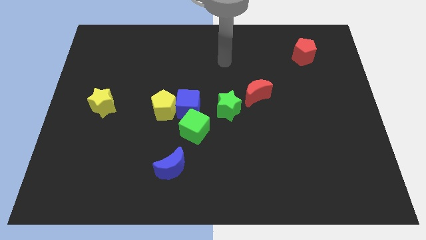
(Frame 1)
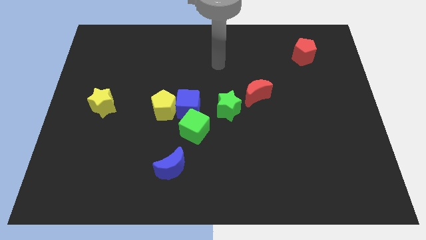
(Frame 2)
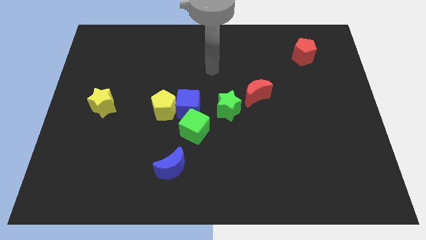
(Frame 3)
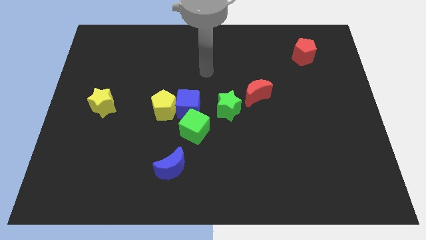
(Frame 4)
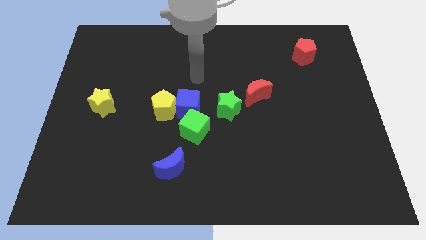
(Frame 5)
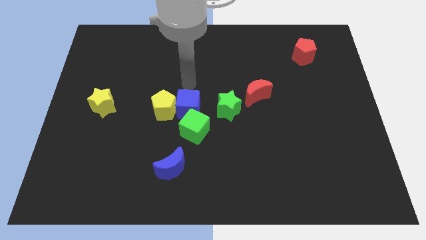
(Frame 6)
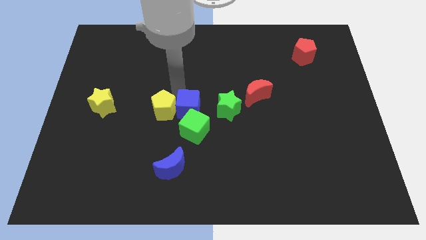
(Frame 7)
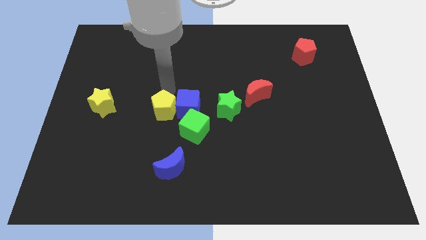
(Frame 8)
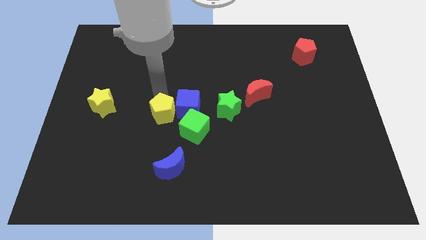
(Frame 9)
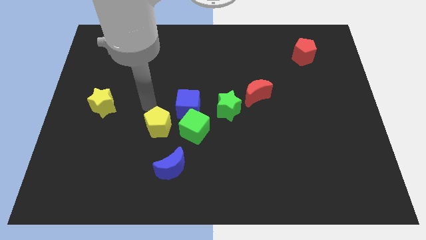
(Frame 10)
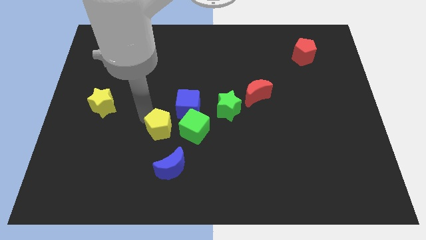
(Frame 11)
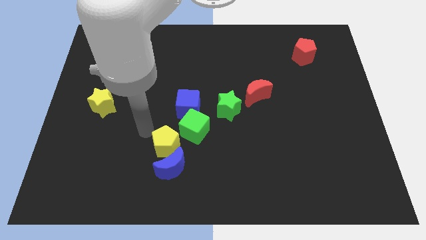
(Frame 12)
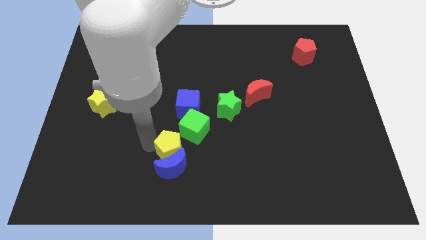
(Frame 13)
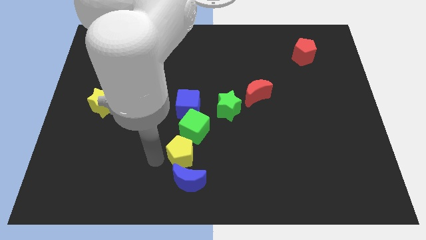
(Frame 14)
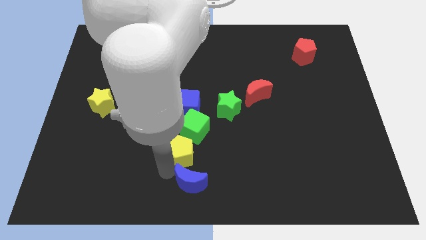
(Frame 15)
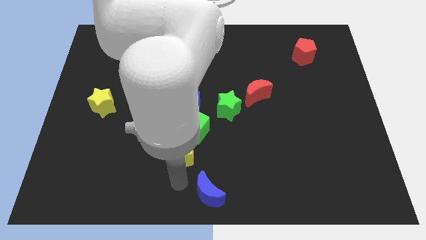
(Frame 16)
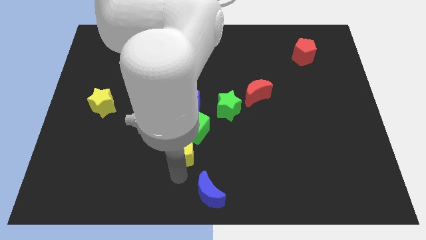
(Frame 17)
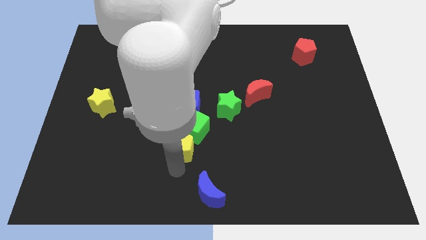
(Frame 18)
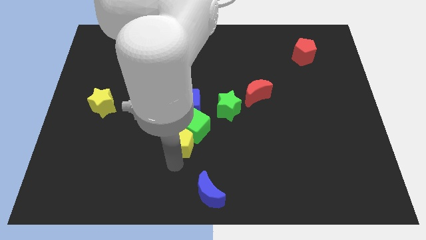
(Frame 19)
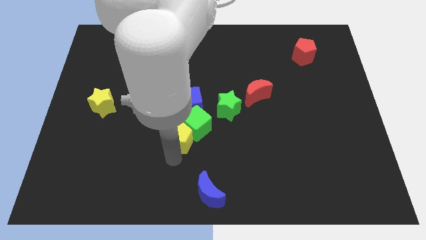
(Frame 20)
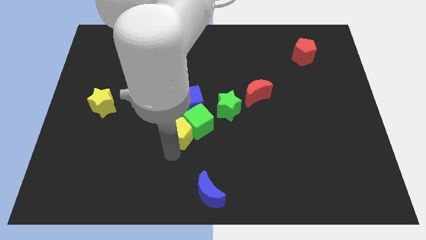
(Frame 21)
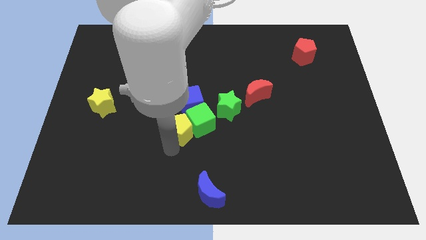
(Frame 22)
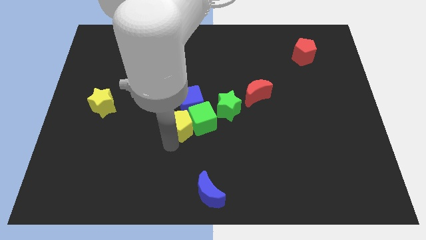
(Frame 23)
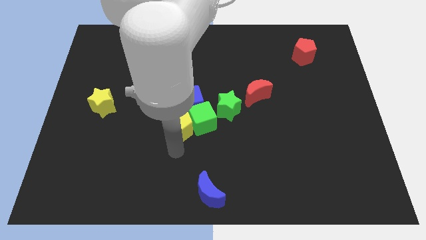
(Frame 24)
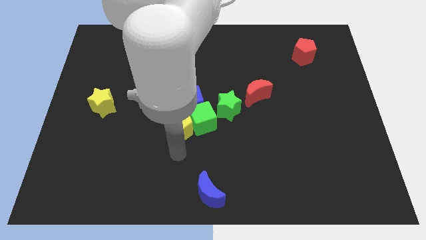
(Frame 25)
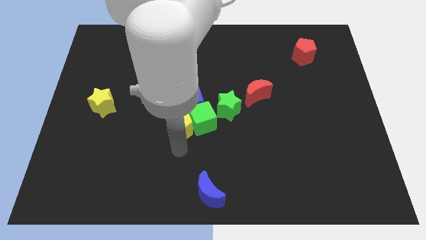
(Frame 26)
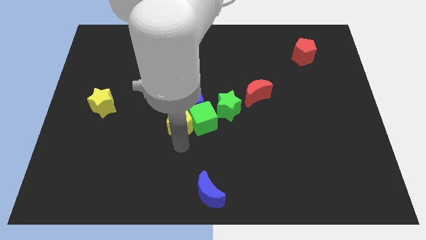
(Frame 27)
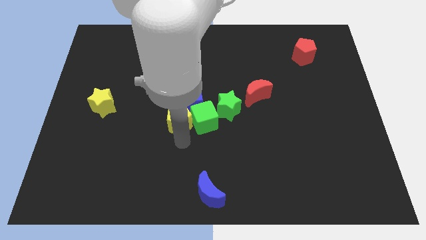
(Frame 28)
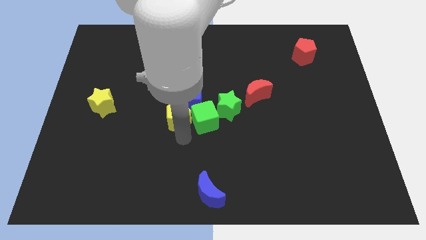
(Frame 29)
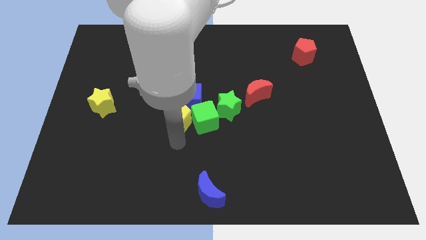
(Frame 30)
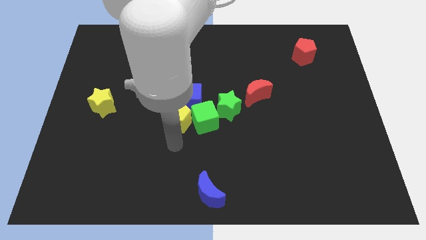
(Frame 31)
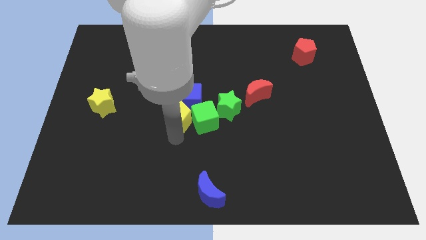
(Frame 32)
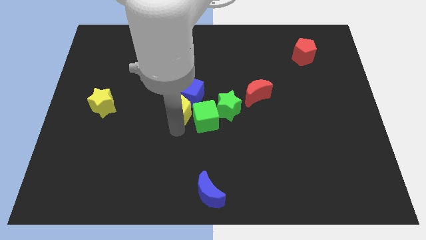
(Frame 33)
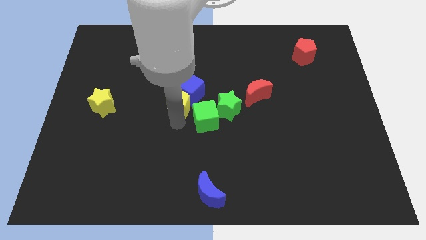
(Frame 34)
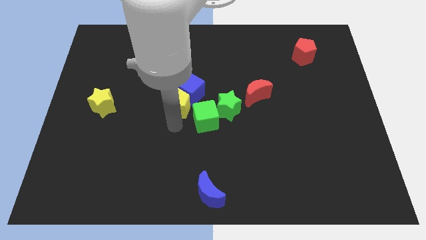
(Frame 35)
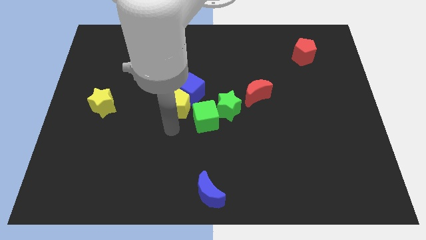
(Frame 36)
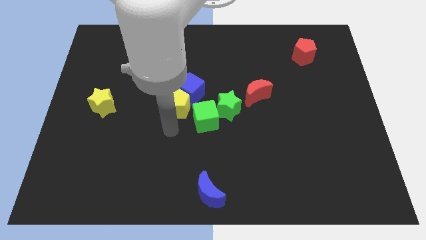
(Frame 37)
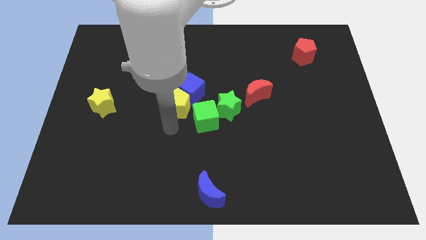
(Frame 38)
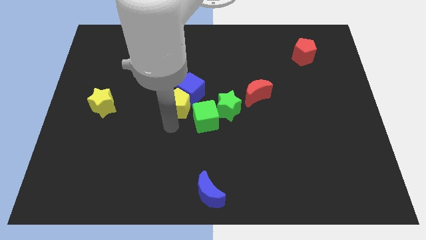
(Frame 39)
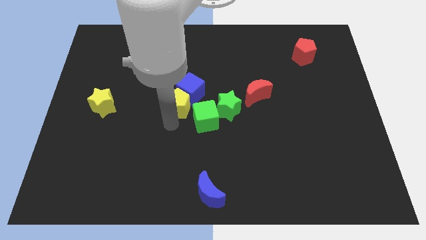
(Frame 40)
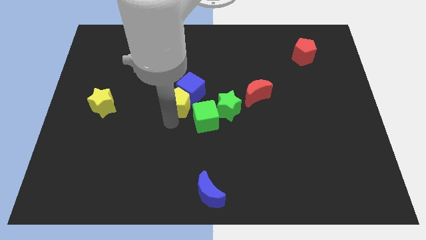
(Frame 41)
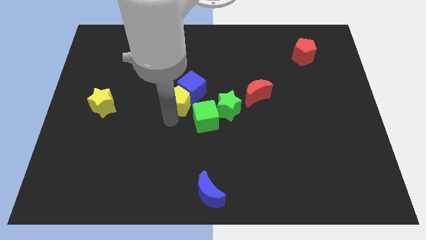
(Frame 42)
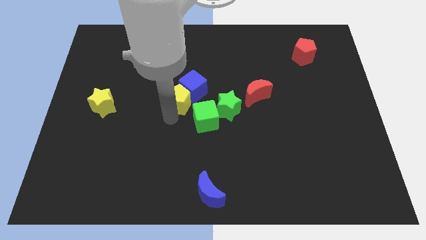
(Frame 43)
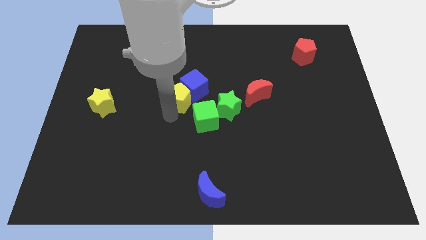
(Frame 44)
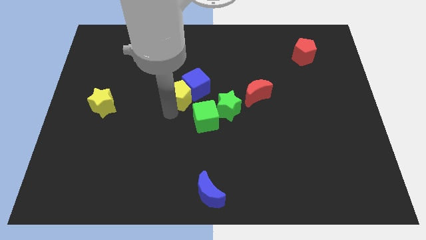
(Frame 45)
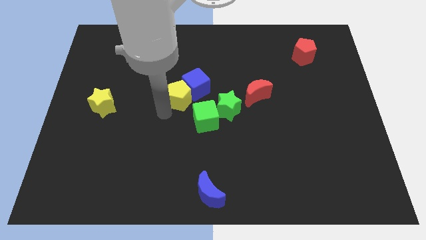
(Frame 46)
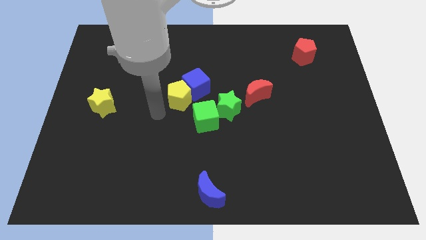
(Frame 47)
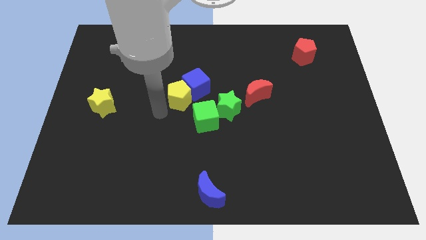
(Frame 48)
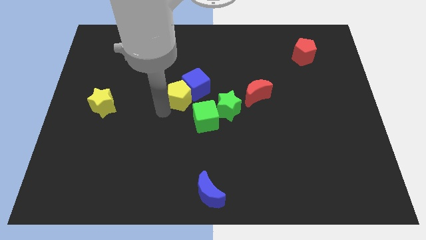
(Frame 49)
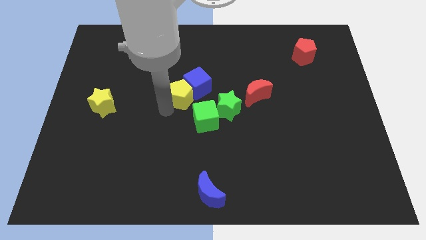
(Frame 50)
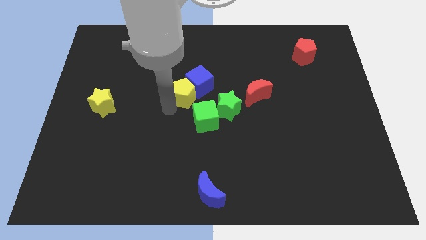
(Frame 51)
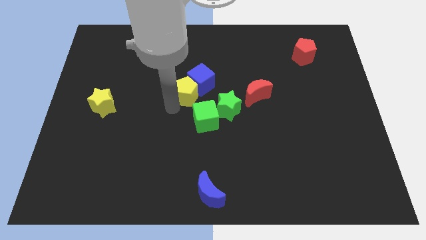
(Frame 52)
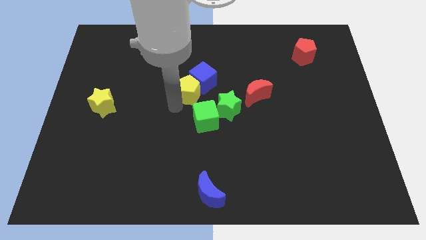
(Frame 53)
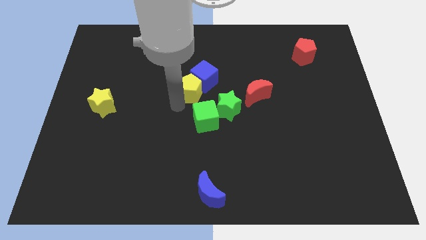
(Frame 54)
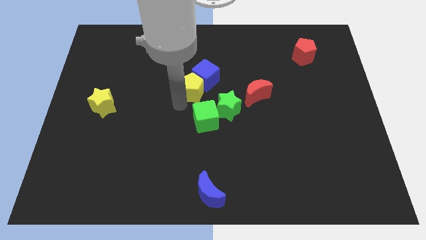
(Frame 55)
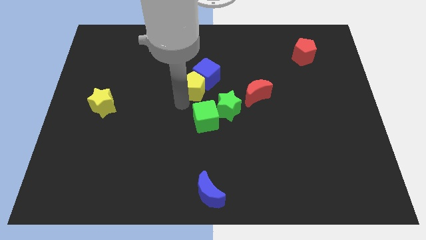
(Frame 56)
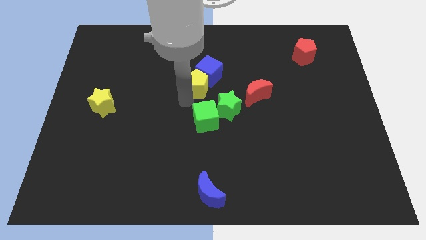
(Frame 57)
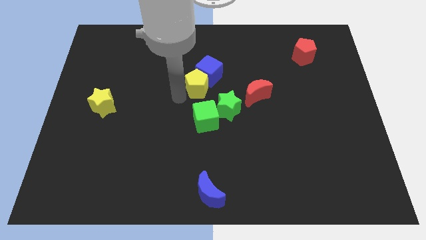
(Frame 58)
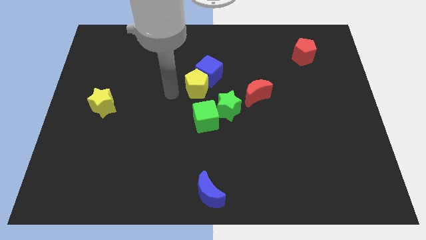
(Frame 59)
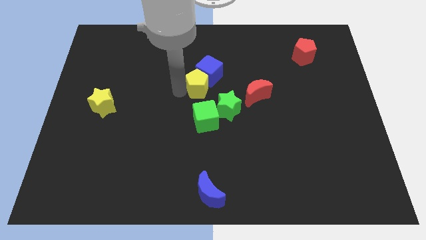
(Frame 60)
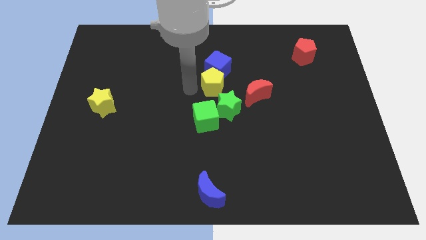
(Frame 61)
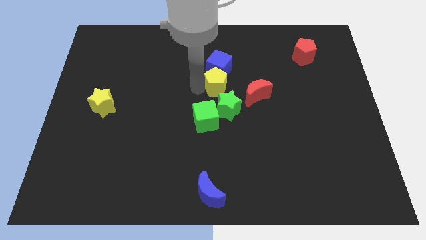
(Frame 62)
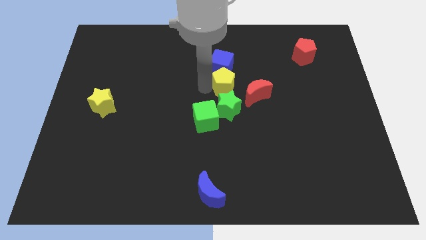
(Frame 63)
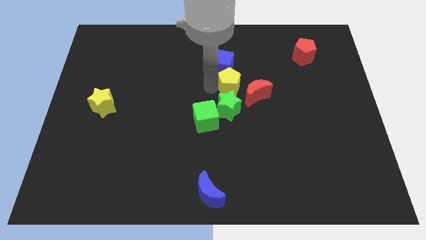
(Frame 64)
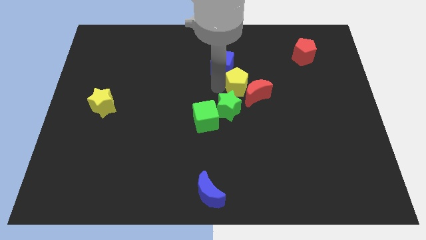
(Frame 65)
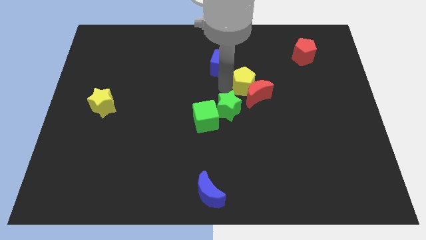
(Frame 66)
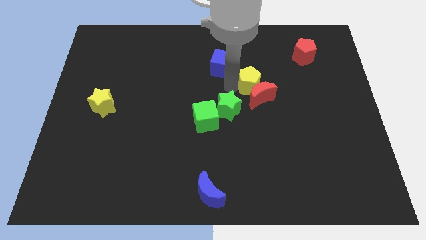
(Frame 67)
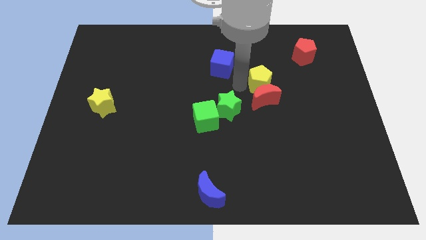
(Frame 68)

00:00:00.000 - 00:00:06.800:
push the yellow pentagon to the top right side of the red moon

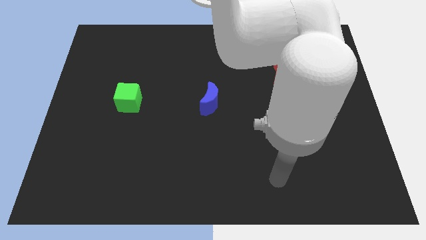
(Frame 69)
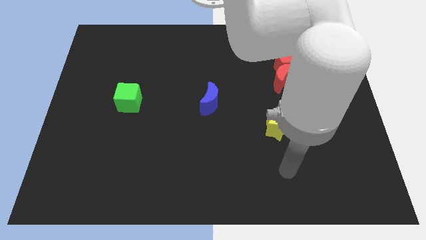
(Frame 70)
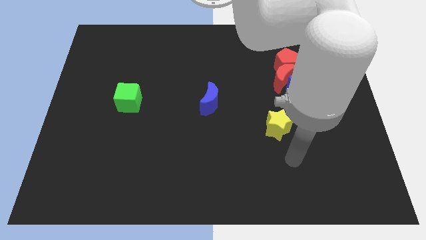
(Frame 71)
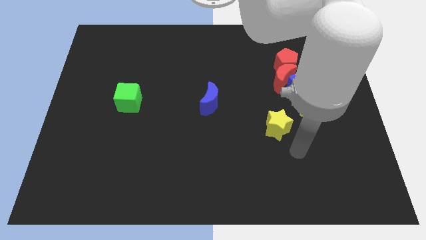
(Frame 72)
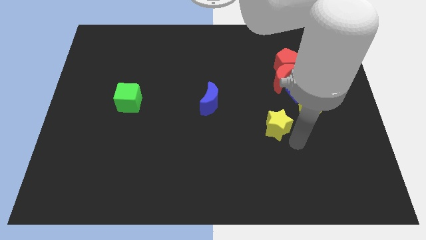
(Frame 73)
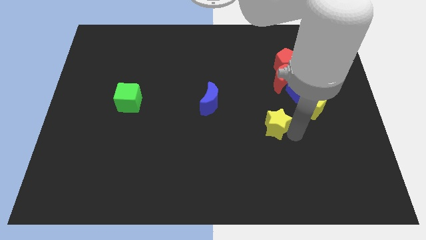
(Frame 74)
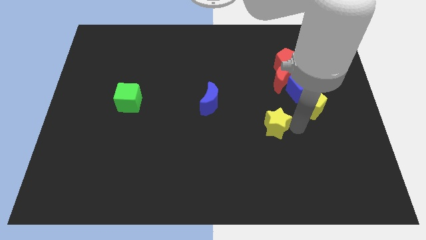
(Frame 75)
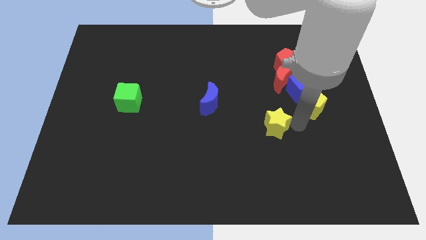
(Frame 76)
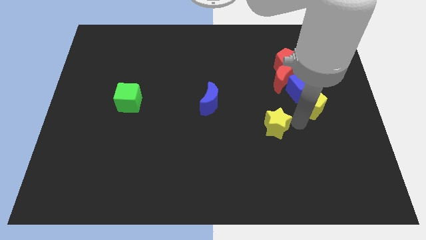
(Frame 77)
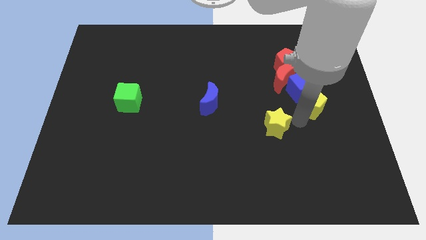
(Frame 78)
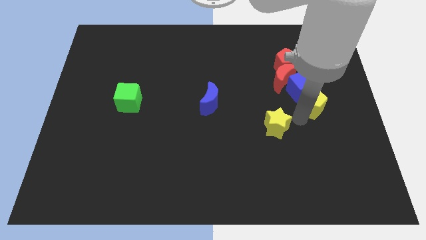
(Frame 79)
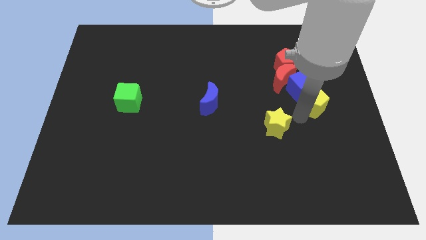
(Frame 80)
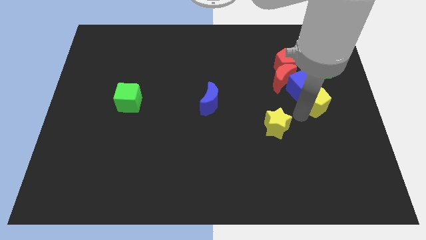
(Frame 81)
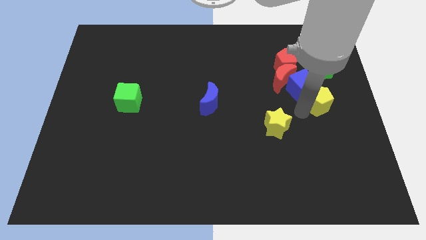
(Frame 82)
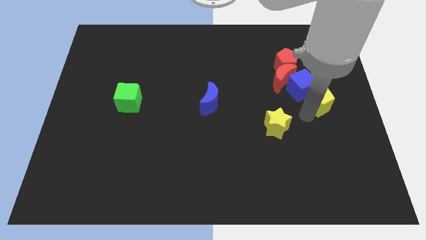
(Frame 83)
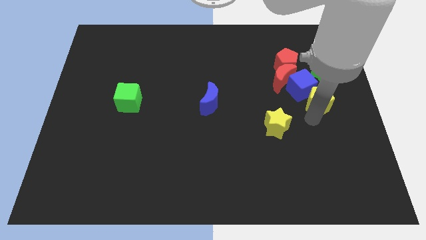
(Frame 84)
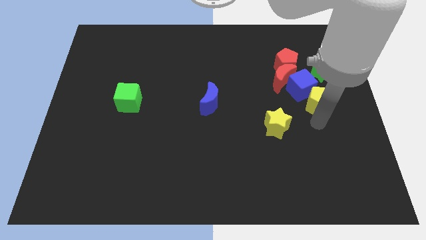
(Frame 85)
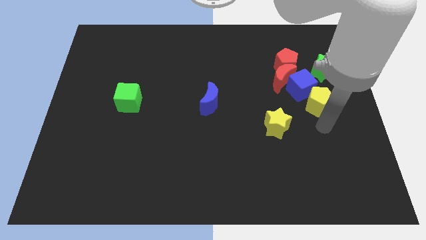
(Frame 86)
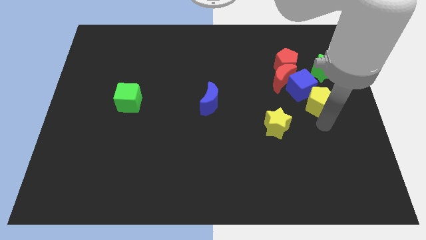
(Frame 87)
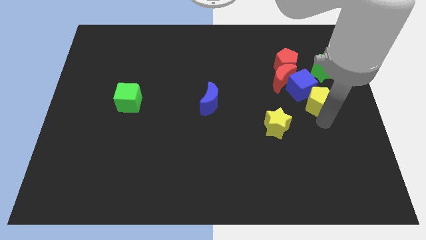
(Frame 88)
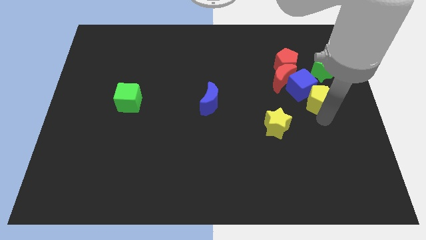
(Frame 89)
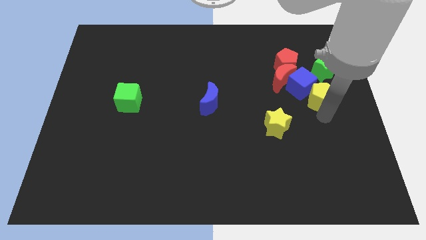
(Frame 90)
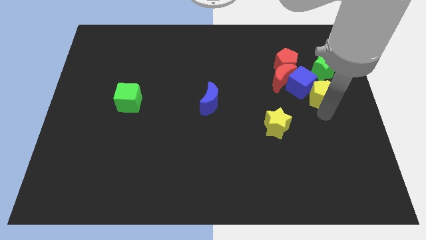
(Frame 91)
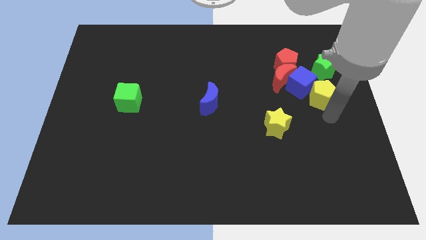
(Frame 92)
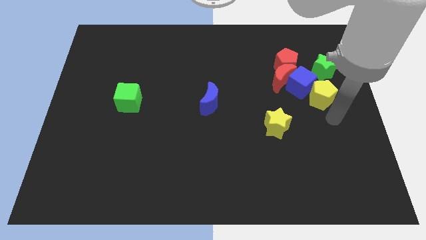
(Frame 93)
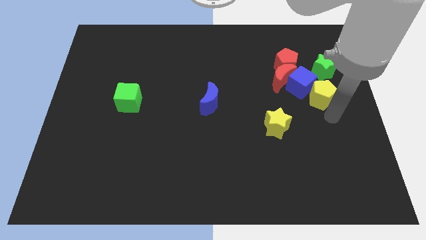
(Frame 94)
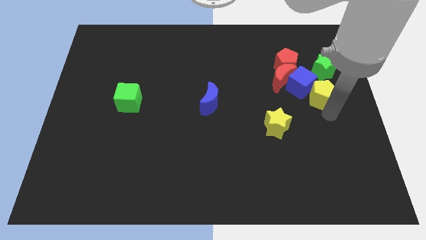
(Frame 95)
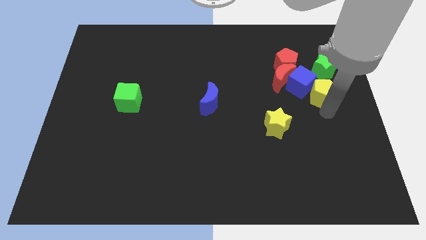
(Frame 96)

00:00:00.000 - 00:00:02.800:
push the yellow pentagon to the bottom right of the red pentagon
